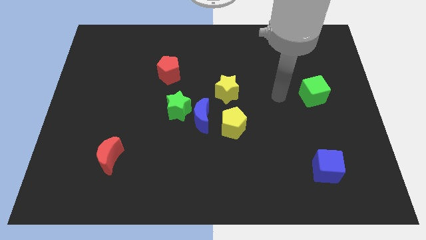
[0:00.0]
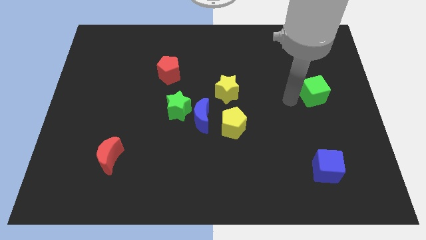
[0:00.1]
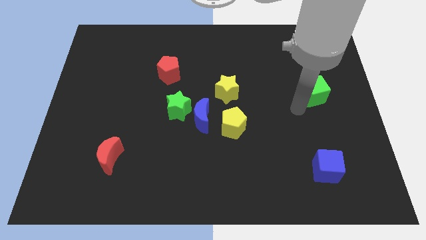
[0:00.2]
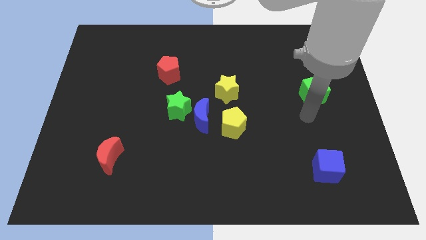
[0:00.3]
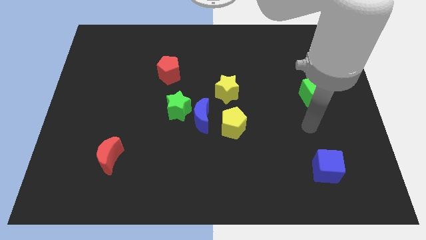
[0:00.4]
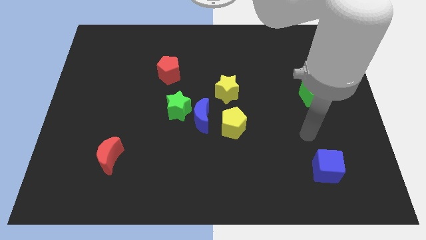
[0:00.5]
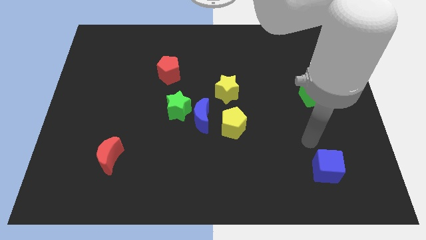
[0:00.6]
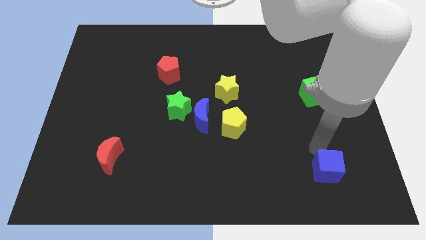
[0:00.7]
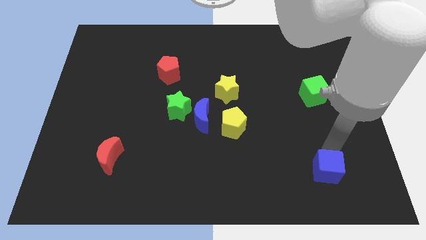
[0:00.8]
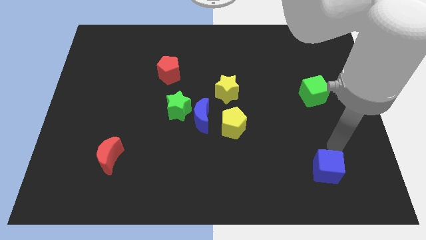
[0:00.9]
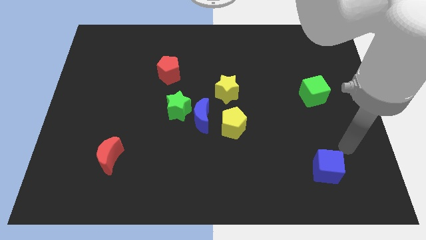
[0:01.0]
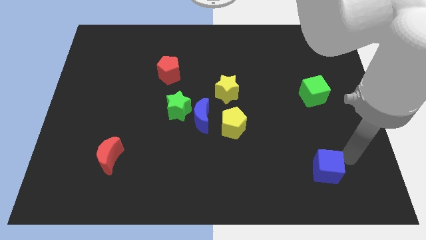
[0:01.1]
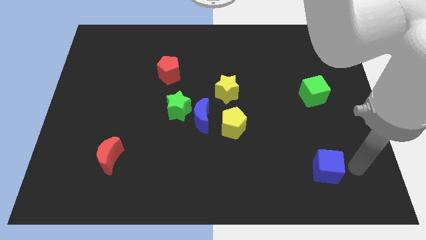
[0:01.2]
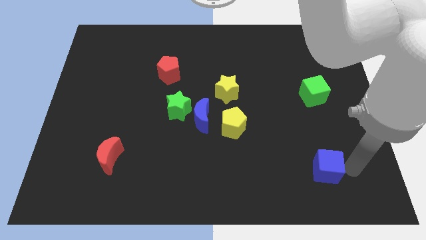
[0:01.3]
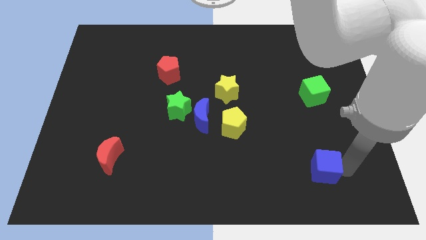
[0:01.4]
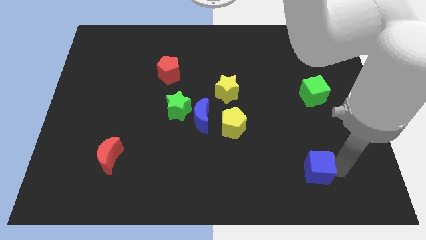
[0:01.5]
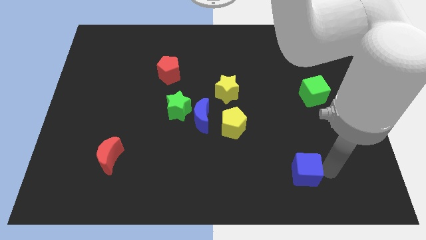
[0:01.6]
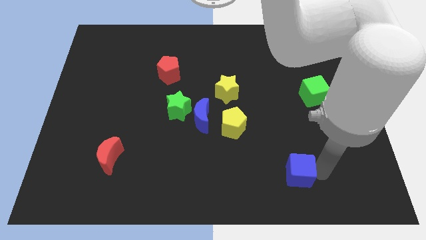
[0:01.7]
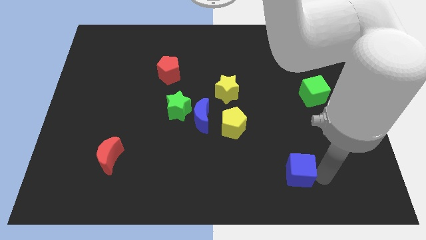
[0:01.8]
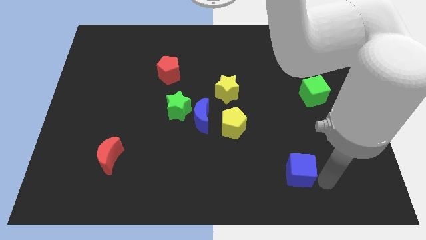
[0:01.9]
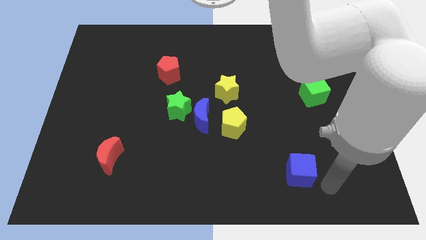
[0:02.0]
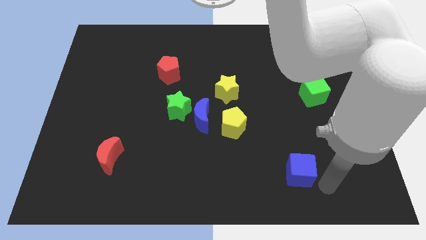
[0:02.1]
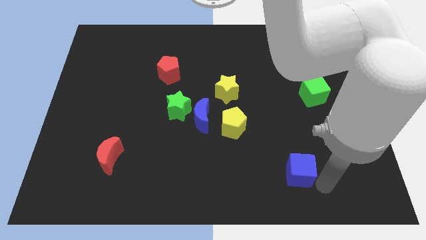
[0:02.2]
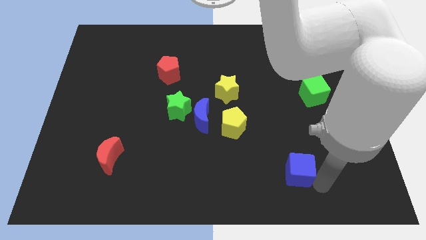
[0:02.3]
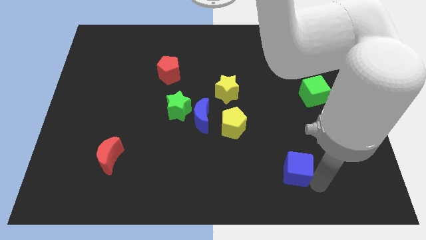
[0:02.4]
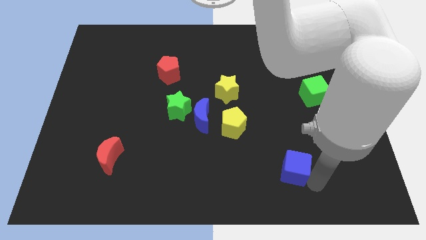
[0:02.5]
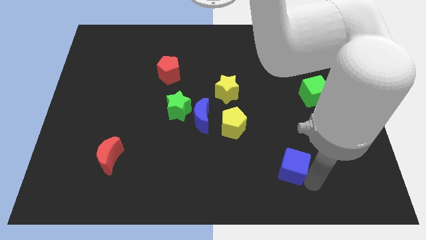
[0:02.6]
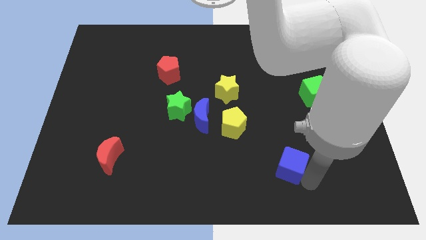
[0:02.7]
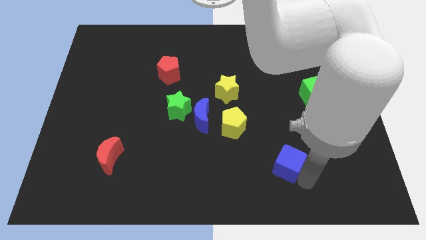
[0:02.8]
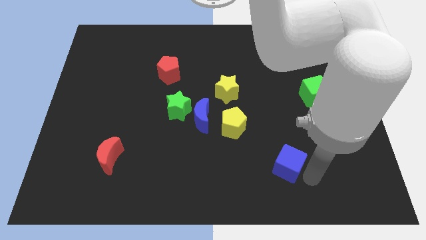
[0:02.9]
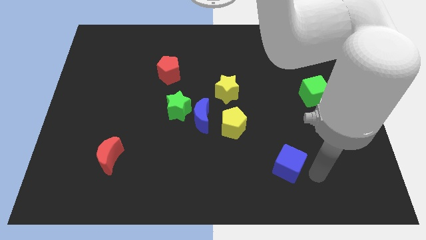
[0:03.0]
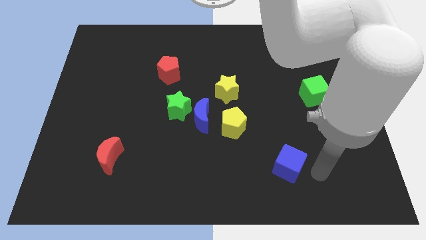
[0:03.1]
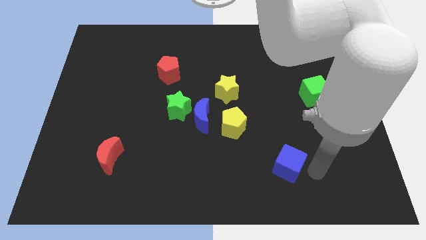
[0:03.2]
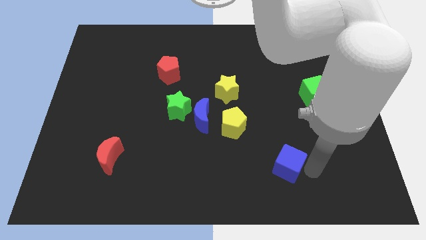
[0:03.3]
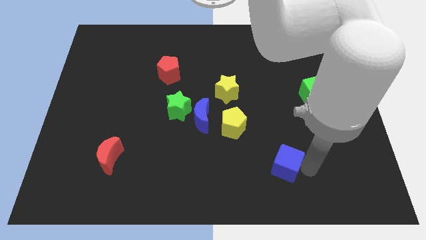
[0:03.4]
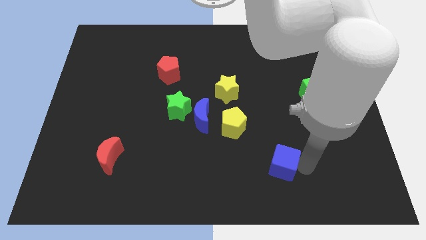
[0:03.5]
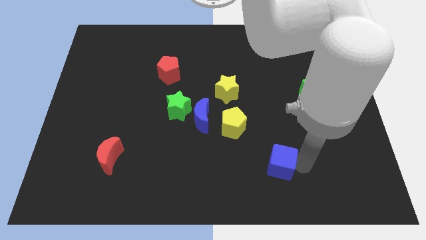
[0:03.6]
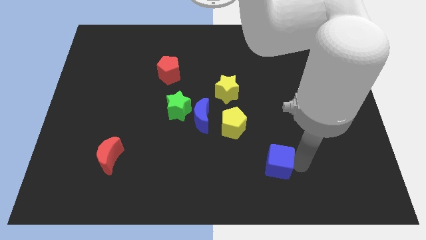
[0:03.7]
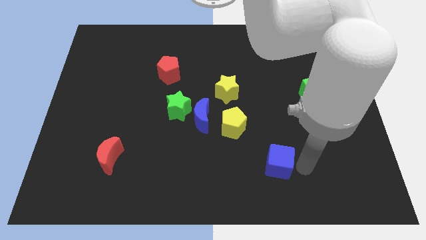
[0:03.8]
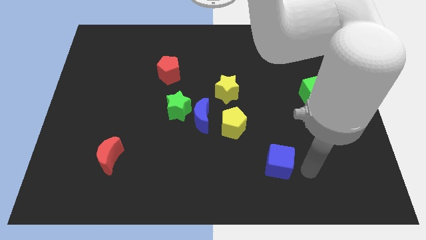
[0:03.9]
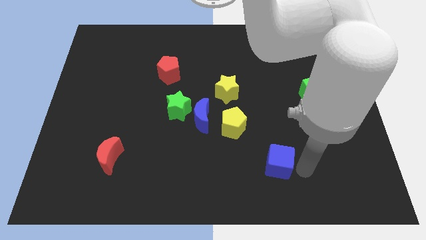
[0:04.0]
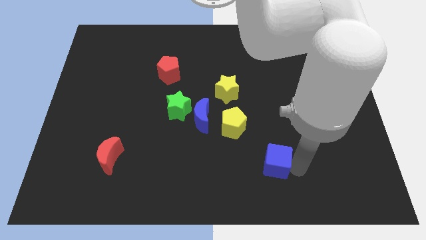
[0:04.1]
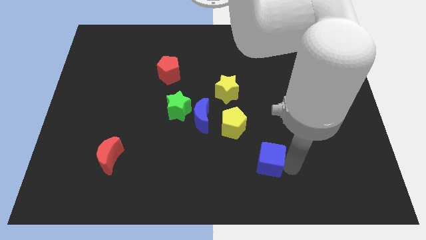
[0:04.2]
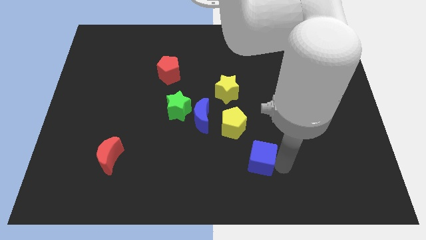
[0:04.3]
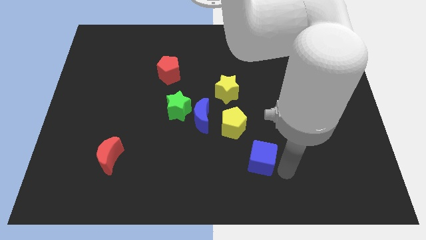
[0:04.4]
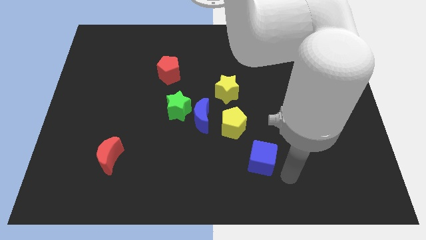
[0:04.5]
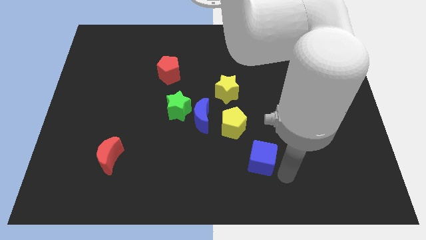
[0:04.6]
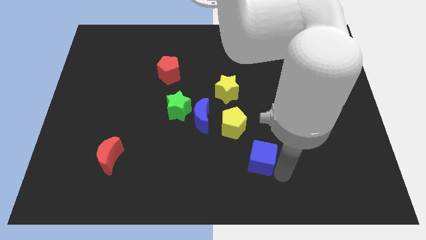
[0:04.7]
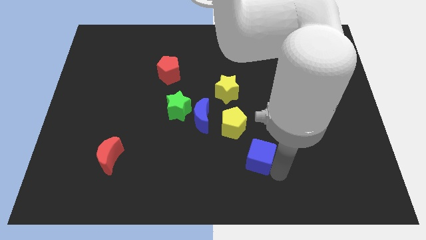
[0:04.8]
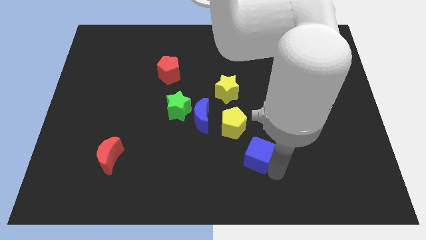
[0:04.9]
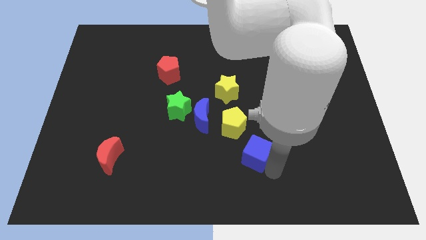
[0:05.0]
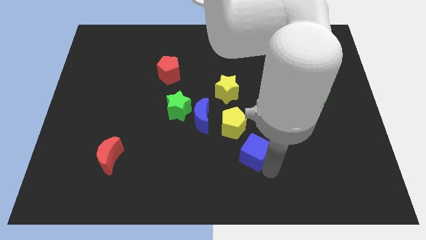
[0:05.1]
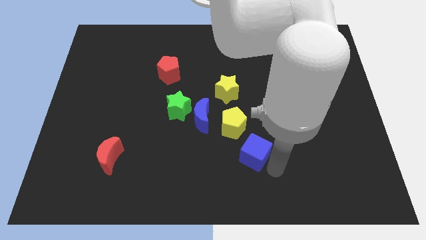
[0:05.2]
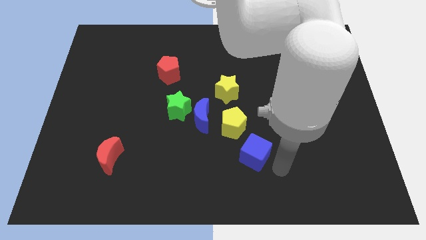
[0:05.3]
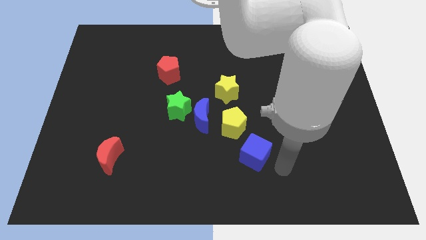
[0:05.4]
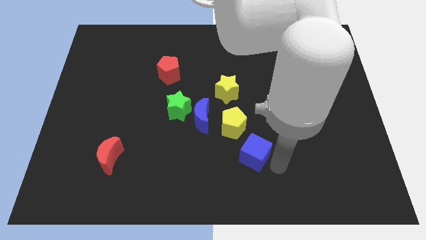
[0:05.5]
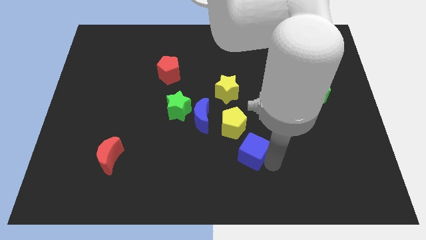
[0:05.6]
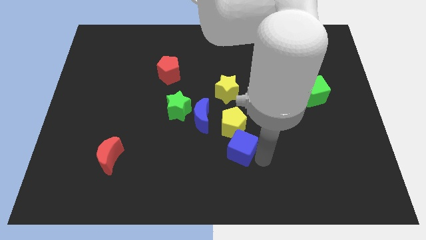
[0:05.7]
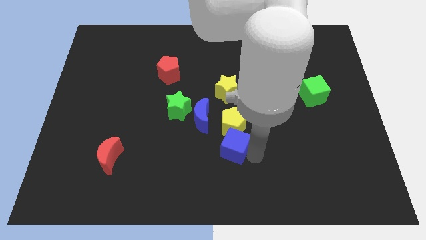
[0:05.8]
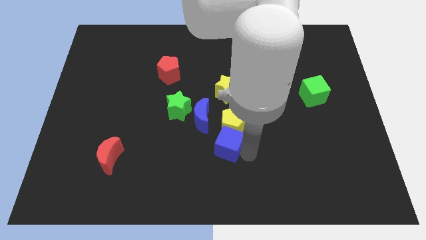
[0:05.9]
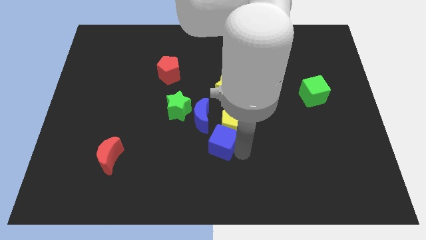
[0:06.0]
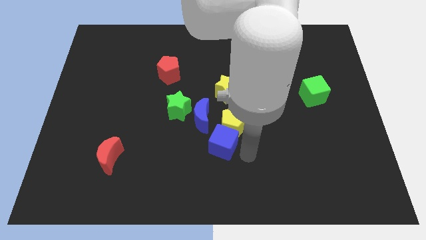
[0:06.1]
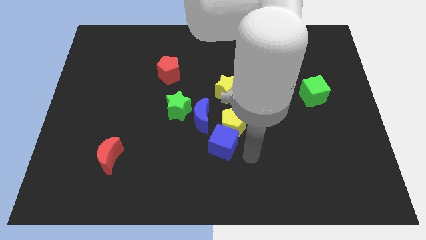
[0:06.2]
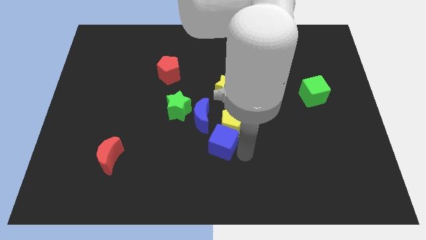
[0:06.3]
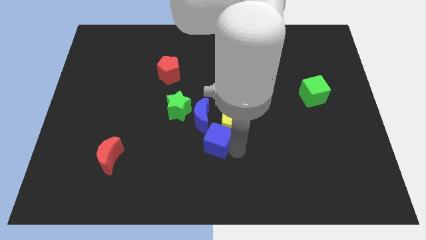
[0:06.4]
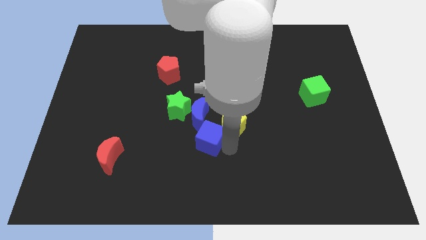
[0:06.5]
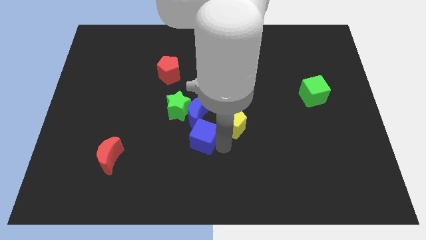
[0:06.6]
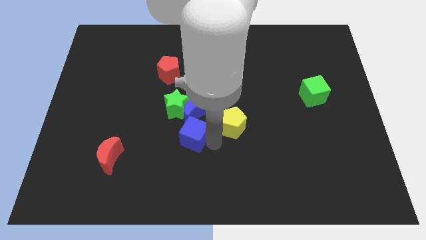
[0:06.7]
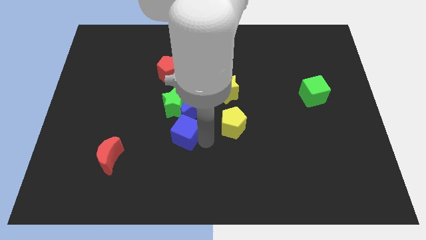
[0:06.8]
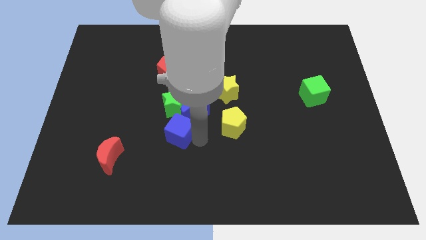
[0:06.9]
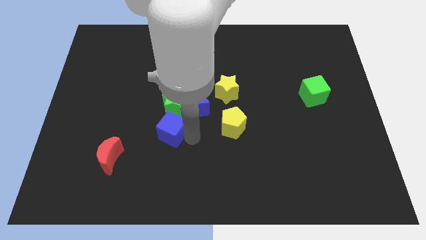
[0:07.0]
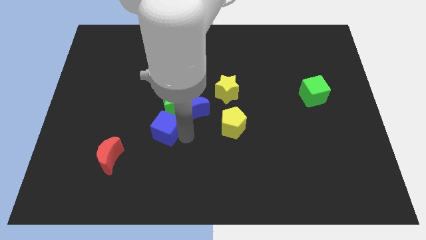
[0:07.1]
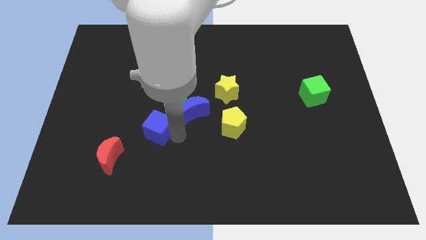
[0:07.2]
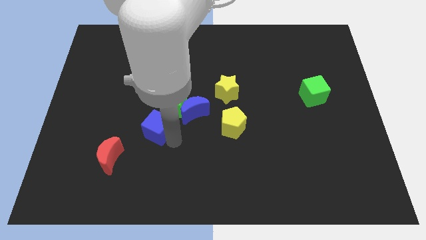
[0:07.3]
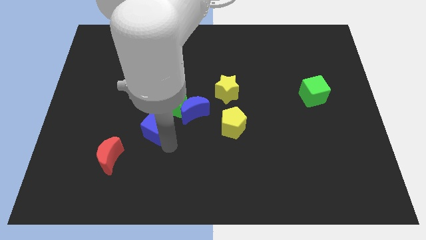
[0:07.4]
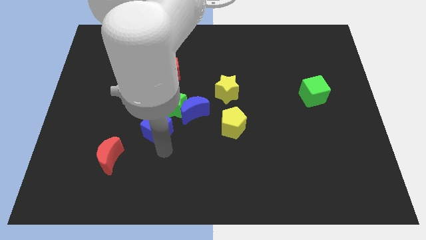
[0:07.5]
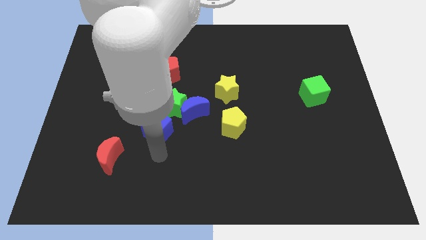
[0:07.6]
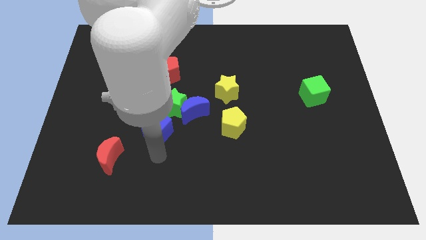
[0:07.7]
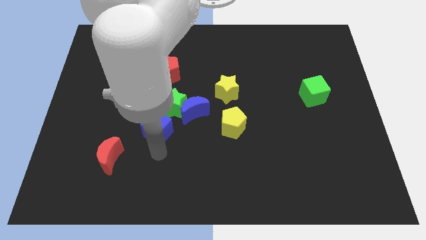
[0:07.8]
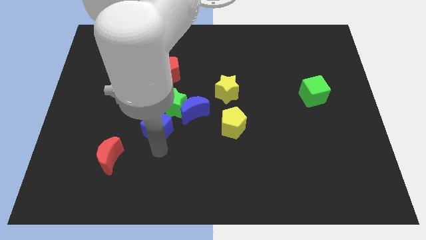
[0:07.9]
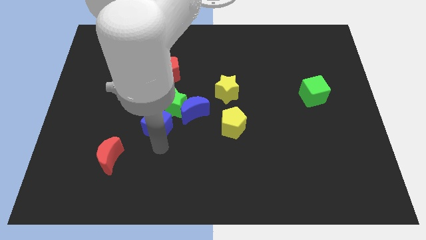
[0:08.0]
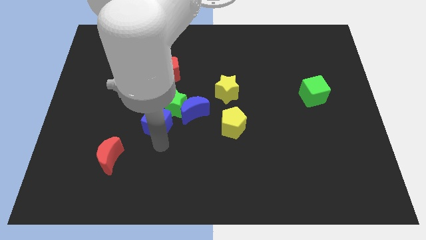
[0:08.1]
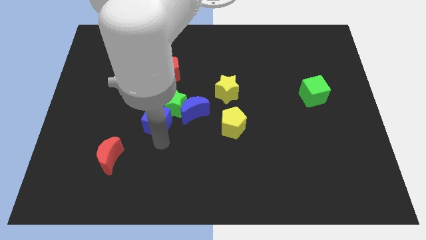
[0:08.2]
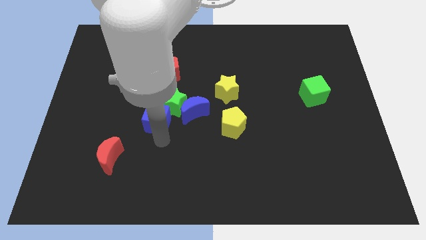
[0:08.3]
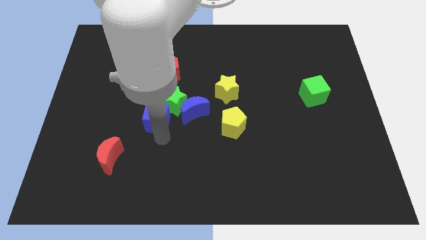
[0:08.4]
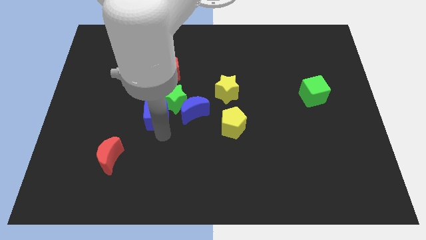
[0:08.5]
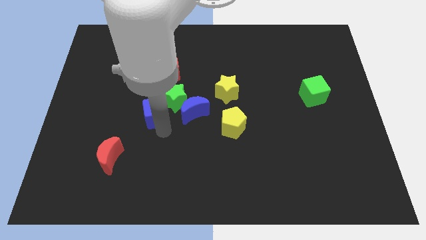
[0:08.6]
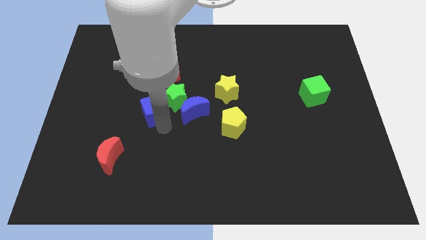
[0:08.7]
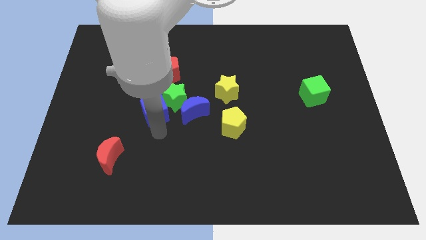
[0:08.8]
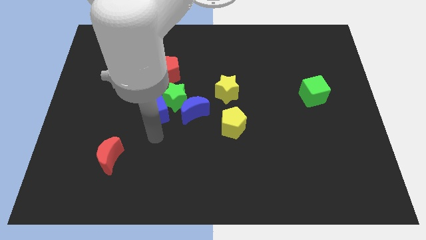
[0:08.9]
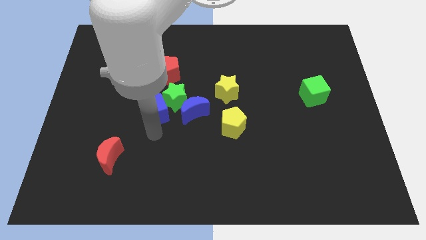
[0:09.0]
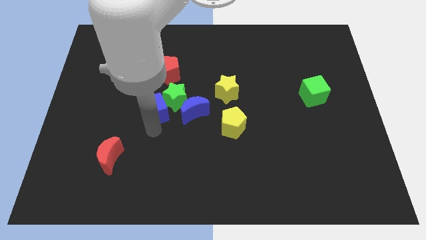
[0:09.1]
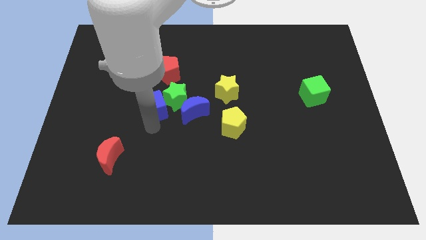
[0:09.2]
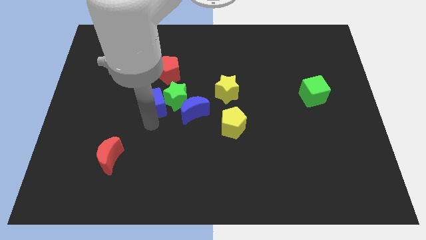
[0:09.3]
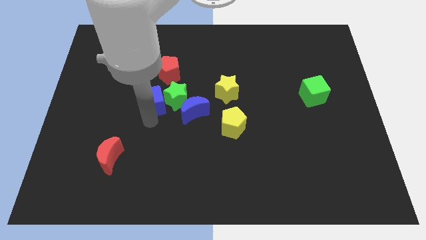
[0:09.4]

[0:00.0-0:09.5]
slide the blue cube to the top left side of the green star
